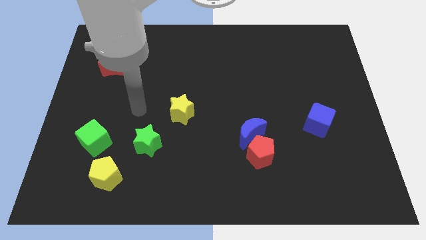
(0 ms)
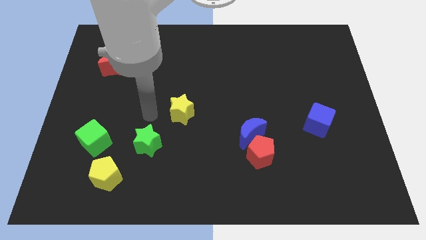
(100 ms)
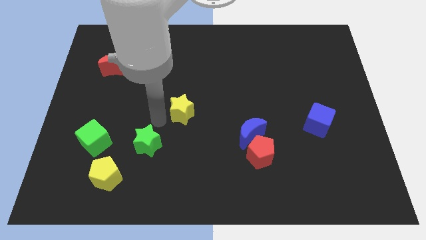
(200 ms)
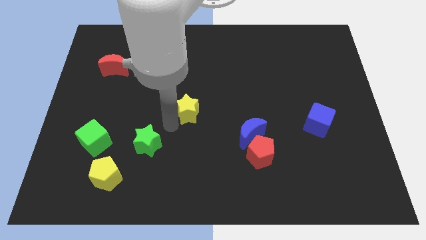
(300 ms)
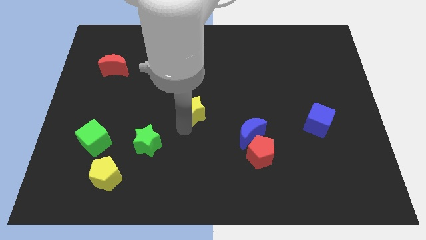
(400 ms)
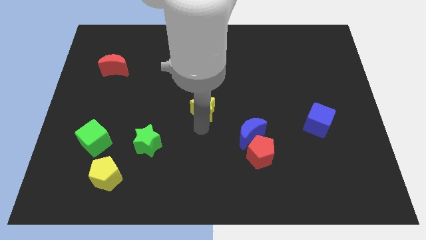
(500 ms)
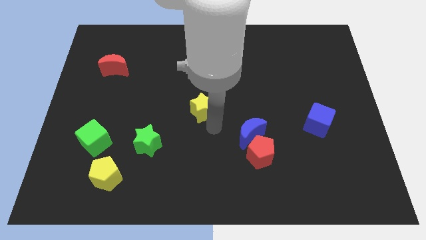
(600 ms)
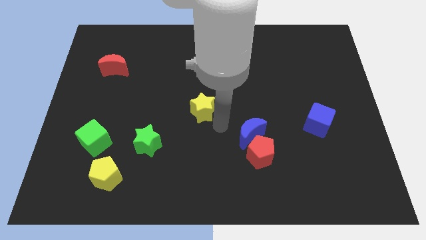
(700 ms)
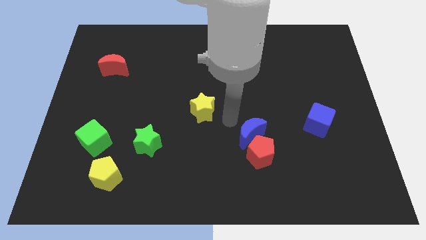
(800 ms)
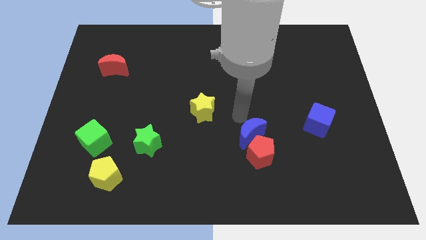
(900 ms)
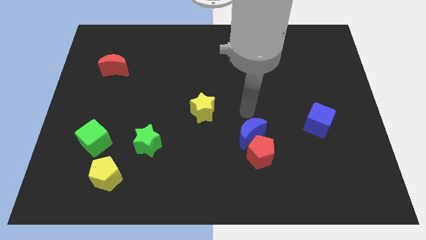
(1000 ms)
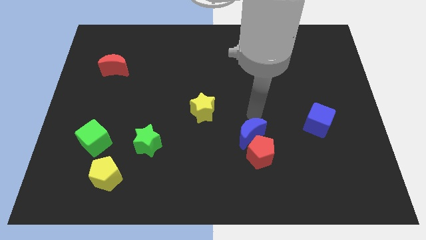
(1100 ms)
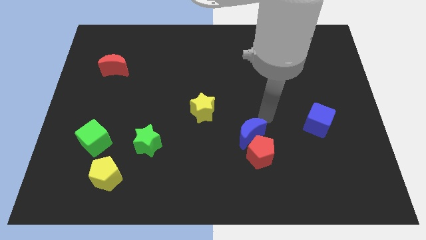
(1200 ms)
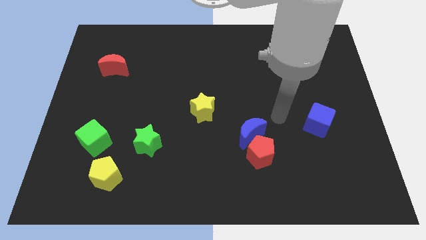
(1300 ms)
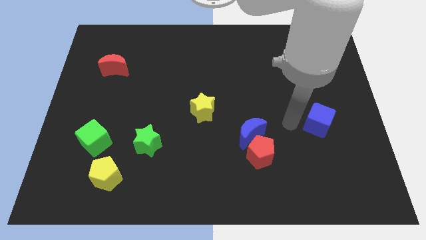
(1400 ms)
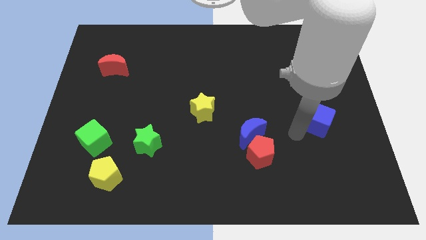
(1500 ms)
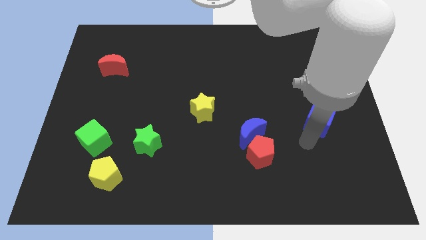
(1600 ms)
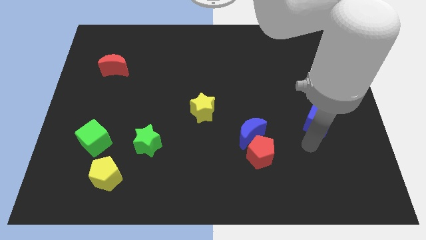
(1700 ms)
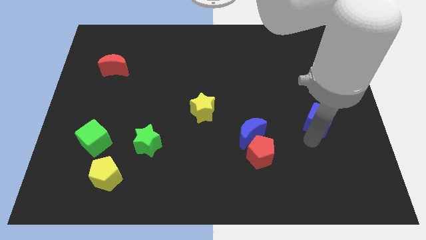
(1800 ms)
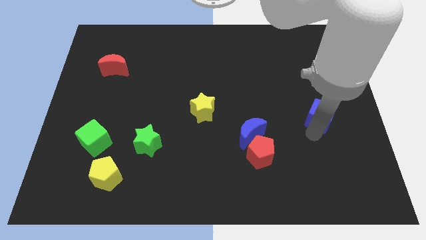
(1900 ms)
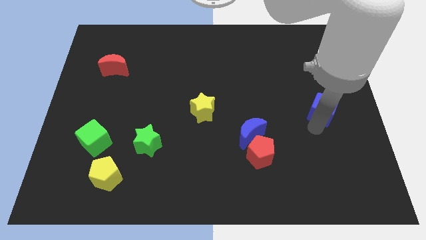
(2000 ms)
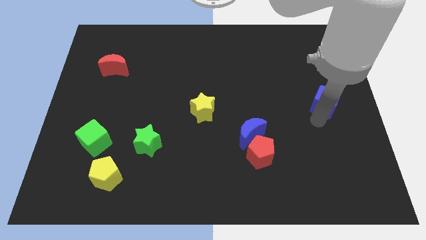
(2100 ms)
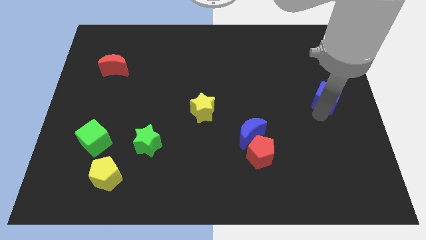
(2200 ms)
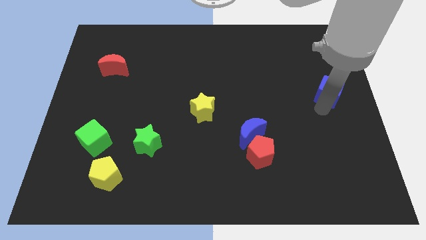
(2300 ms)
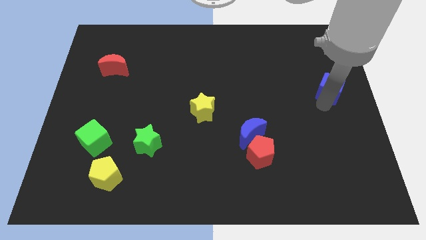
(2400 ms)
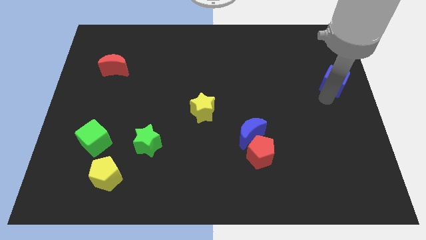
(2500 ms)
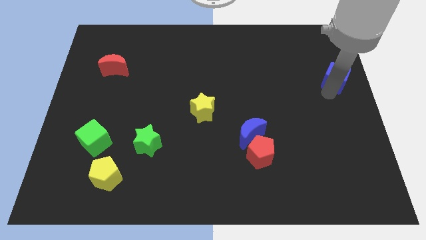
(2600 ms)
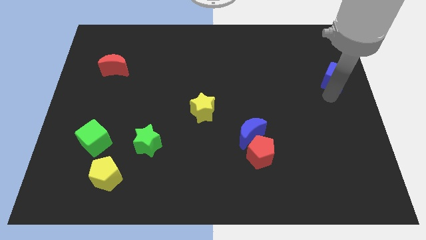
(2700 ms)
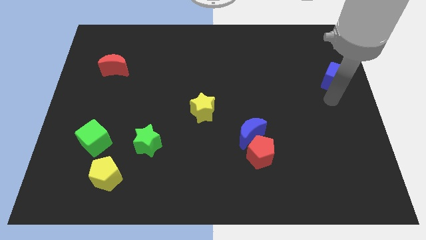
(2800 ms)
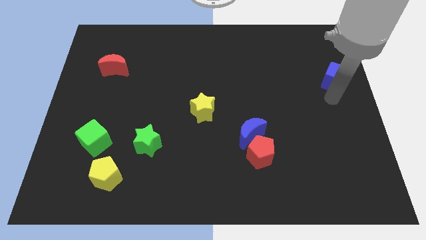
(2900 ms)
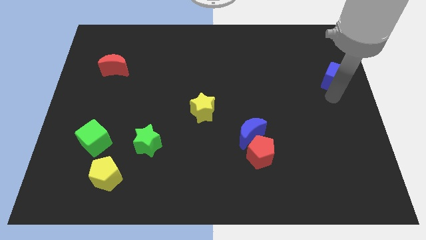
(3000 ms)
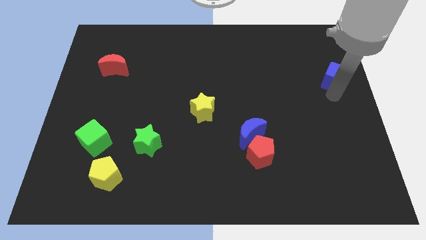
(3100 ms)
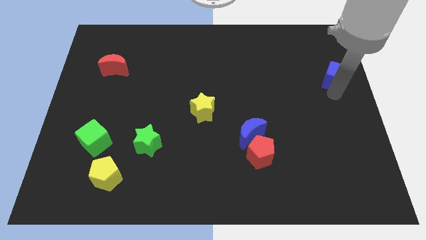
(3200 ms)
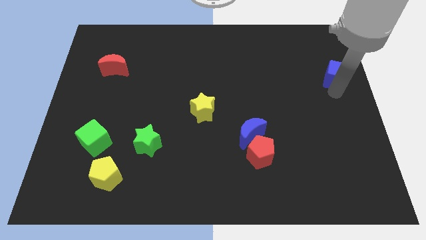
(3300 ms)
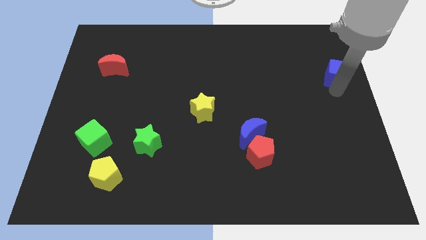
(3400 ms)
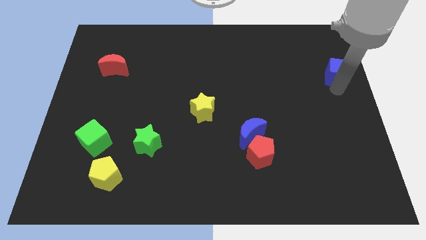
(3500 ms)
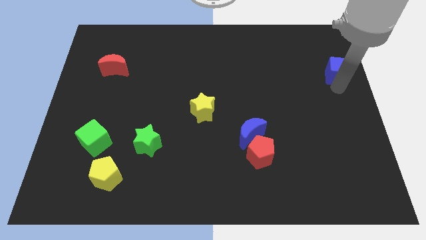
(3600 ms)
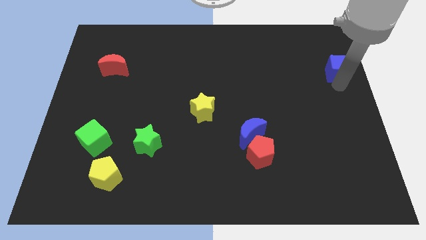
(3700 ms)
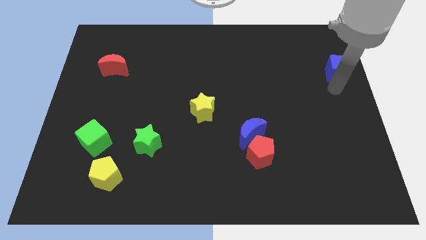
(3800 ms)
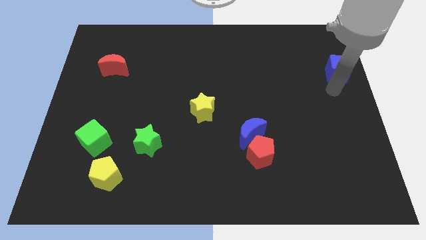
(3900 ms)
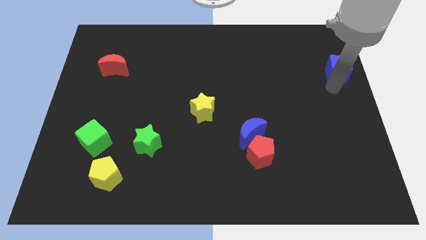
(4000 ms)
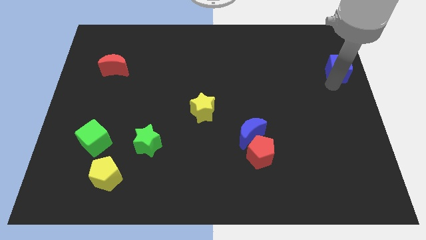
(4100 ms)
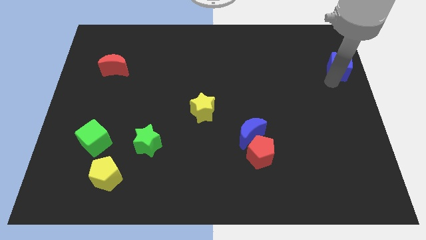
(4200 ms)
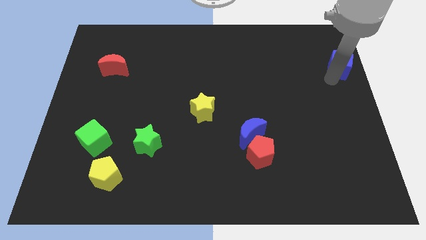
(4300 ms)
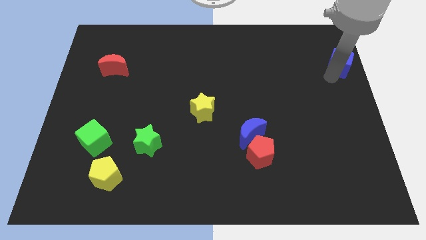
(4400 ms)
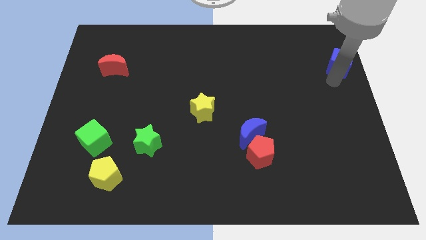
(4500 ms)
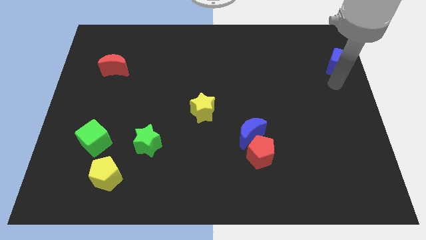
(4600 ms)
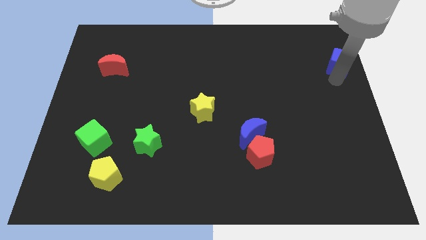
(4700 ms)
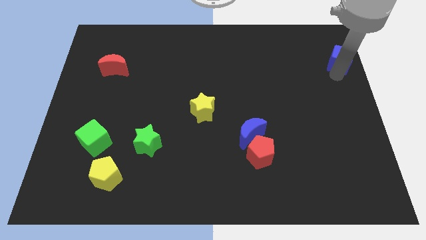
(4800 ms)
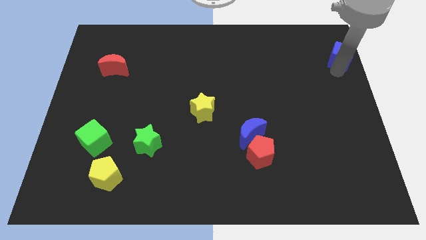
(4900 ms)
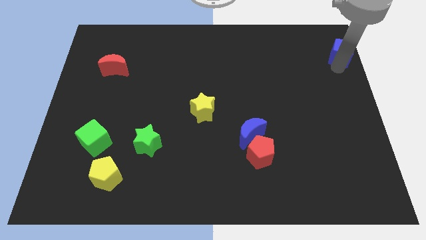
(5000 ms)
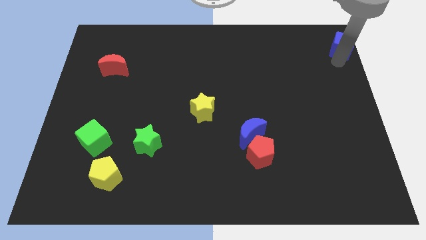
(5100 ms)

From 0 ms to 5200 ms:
move the blue cube to the top right

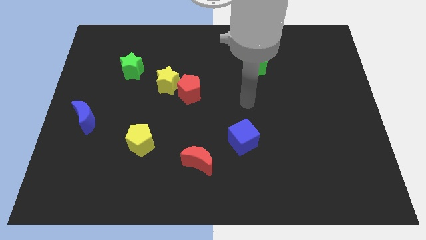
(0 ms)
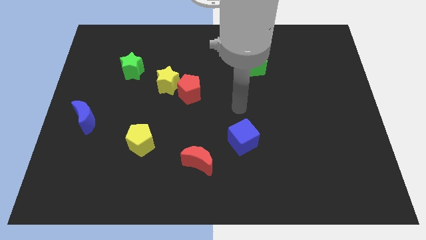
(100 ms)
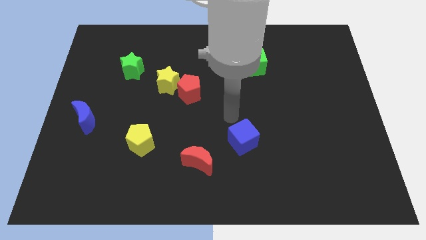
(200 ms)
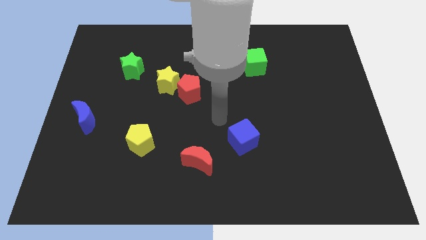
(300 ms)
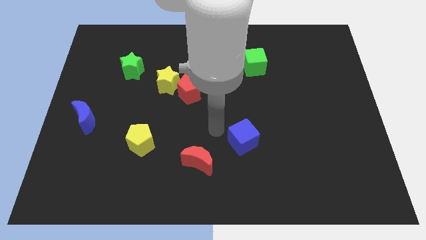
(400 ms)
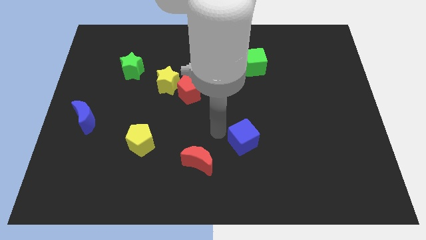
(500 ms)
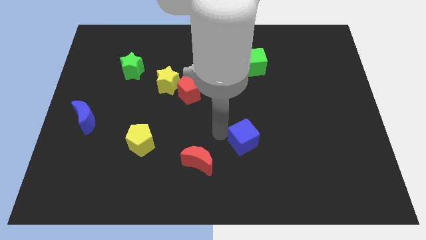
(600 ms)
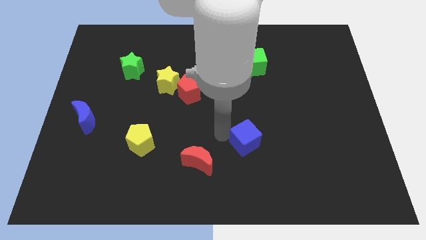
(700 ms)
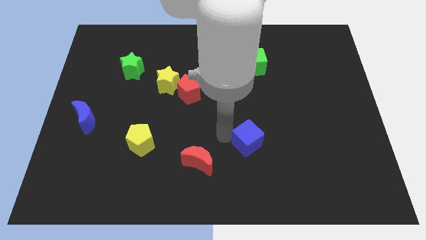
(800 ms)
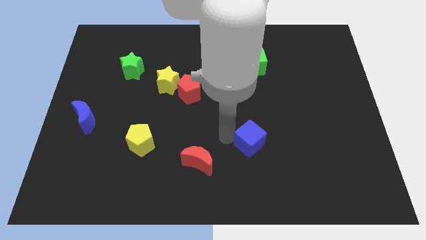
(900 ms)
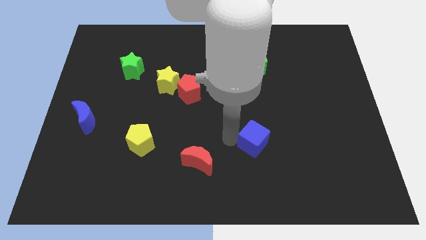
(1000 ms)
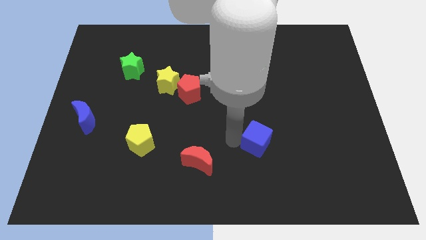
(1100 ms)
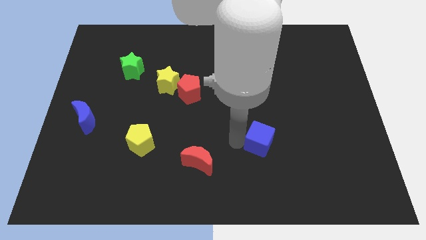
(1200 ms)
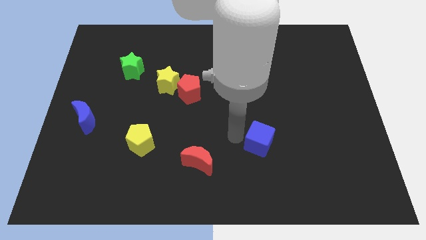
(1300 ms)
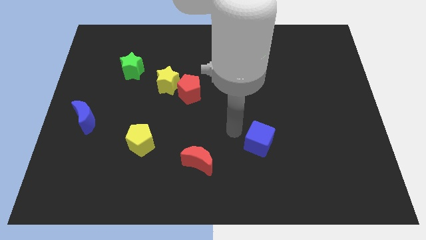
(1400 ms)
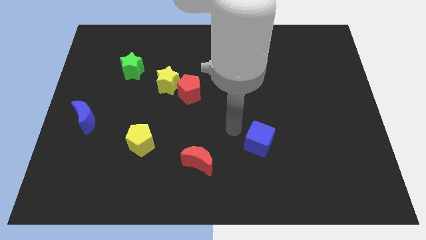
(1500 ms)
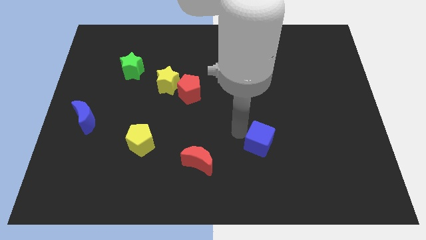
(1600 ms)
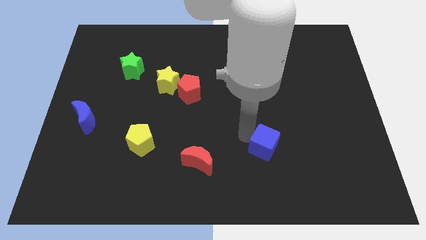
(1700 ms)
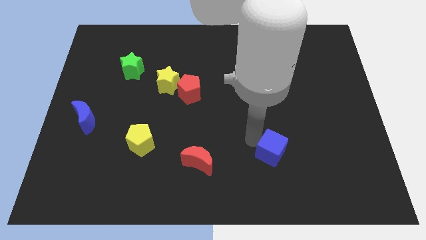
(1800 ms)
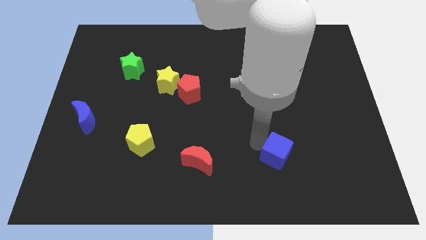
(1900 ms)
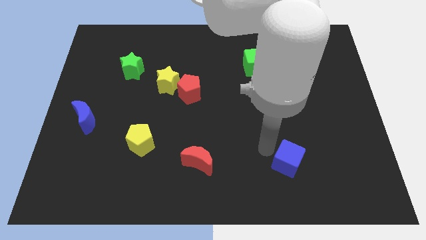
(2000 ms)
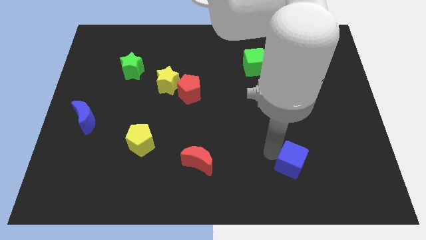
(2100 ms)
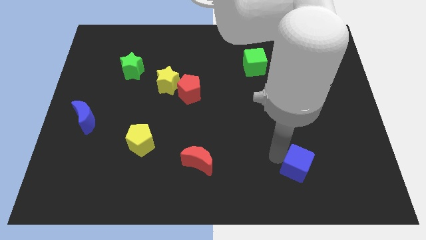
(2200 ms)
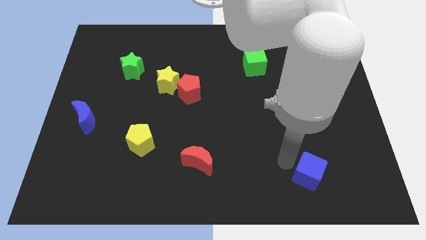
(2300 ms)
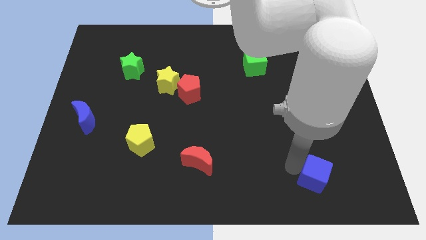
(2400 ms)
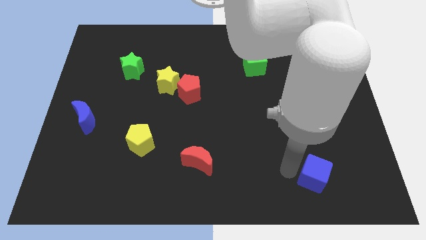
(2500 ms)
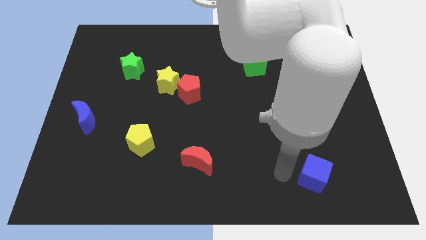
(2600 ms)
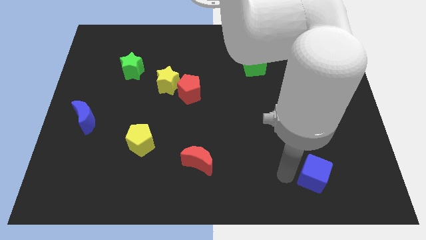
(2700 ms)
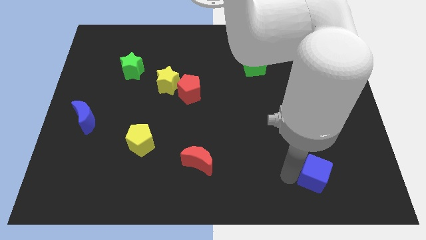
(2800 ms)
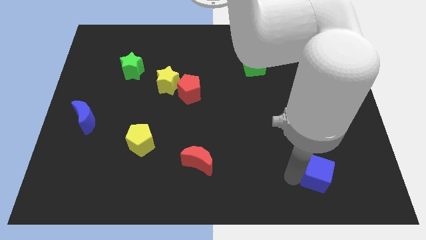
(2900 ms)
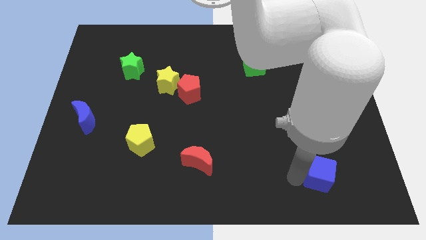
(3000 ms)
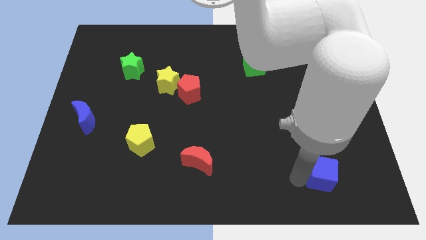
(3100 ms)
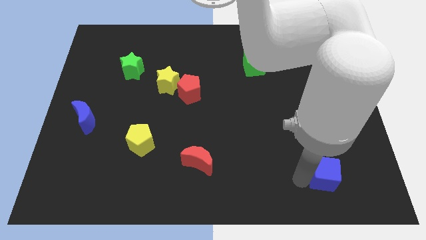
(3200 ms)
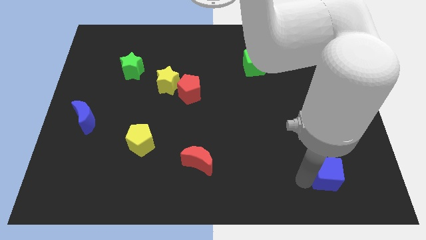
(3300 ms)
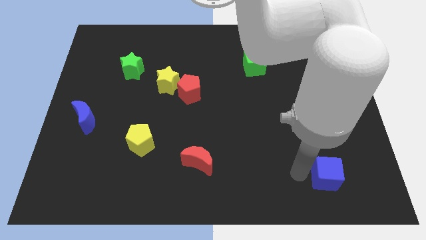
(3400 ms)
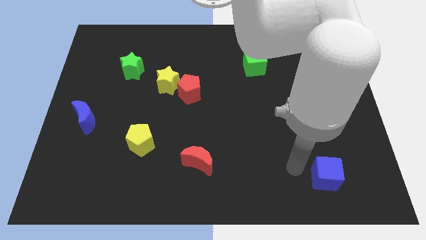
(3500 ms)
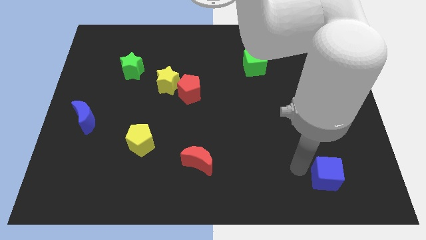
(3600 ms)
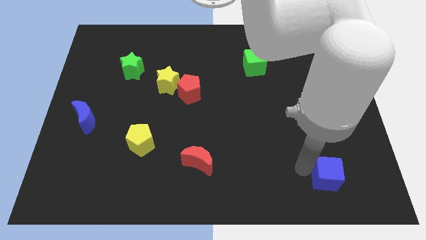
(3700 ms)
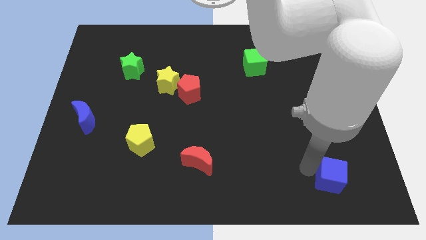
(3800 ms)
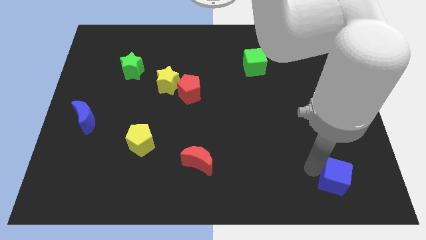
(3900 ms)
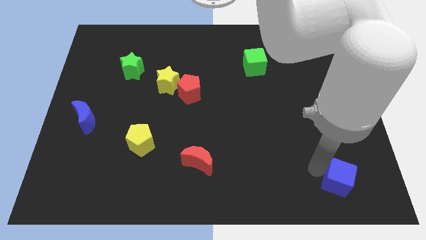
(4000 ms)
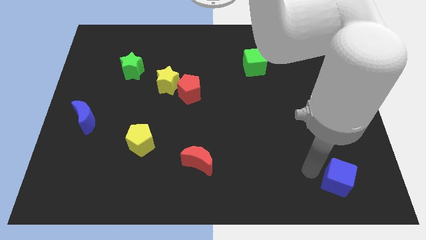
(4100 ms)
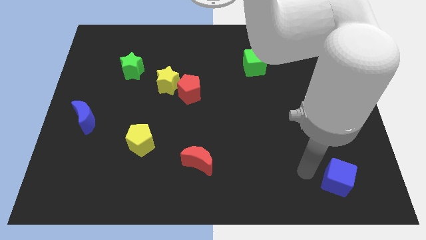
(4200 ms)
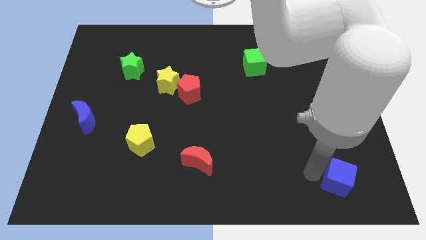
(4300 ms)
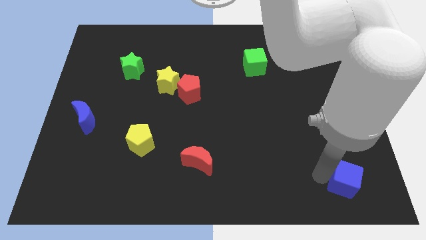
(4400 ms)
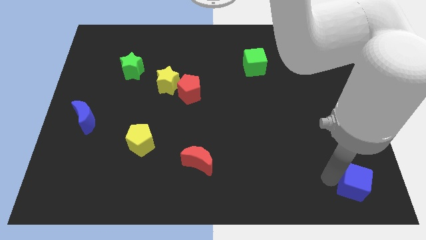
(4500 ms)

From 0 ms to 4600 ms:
move the blue cube to the bottom right corner
